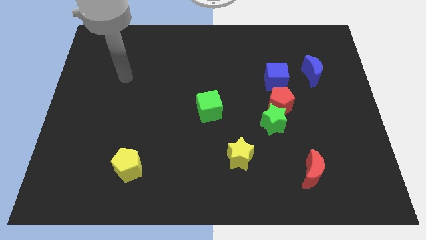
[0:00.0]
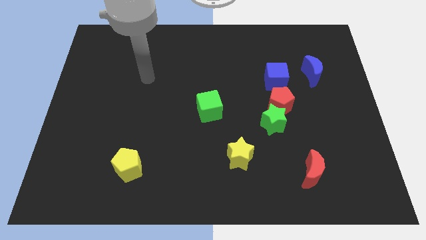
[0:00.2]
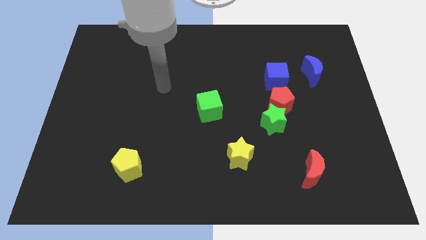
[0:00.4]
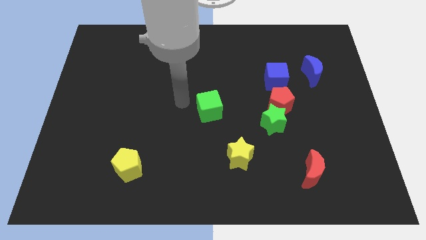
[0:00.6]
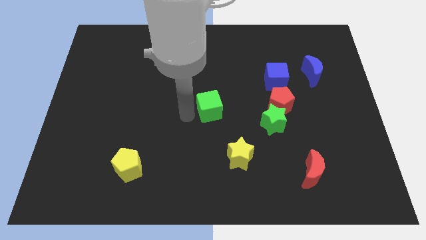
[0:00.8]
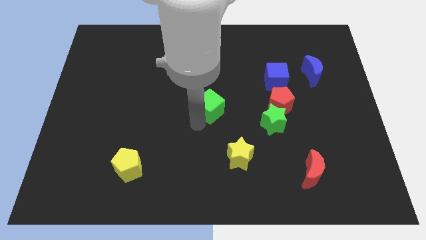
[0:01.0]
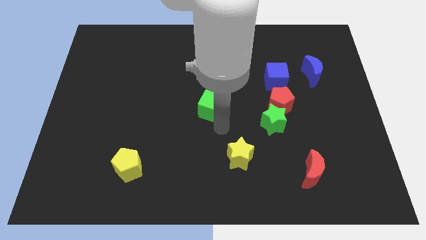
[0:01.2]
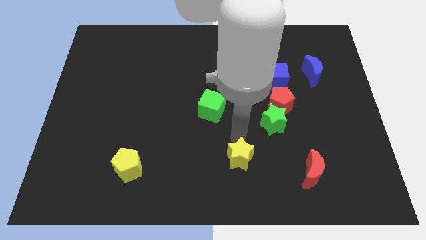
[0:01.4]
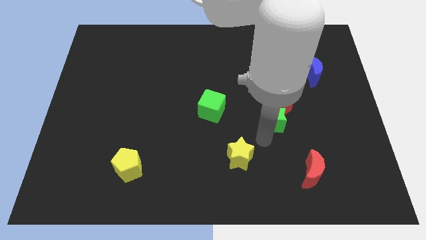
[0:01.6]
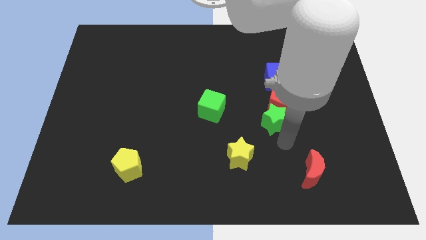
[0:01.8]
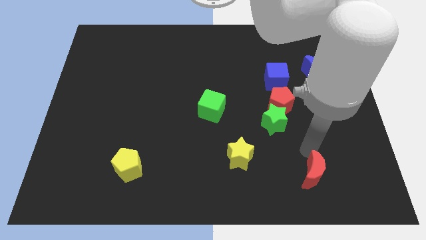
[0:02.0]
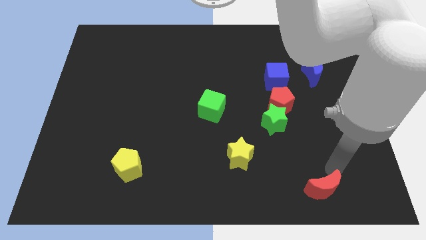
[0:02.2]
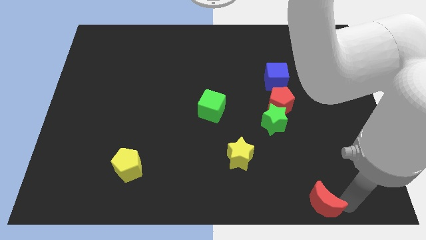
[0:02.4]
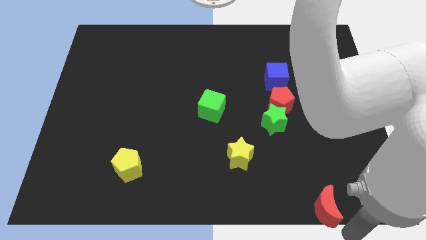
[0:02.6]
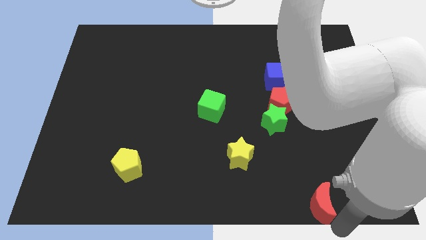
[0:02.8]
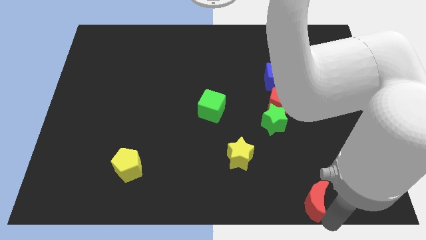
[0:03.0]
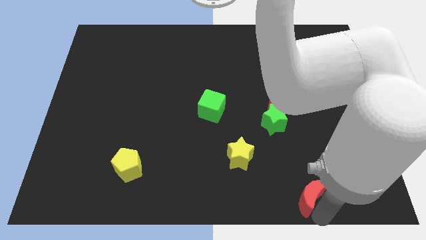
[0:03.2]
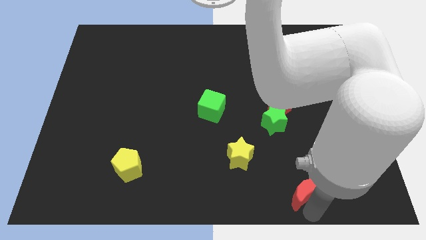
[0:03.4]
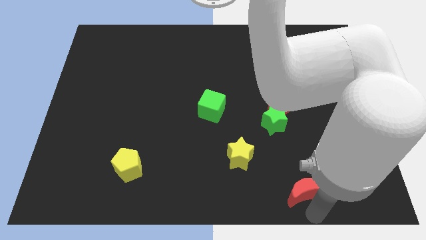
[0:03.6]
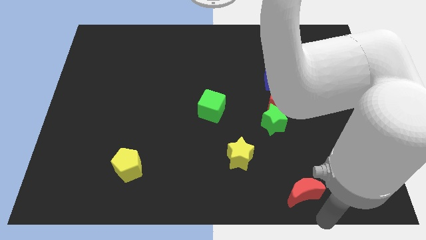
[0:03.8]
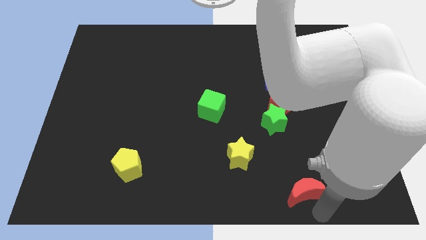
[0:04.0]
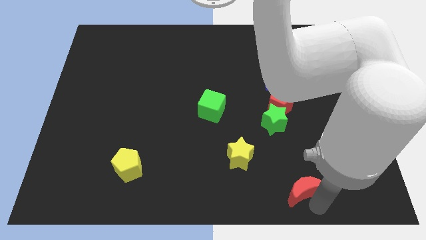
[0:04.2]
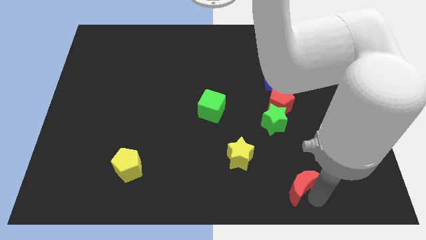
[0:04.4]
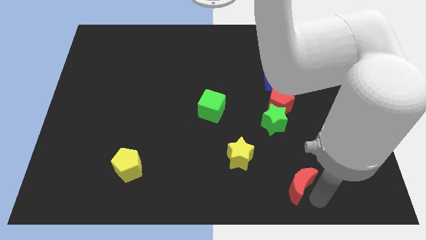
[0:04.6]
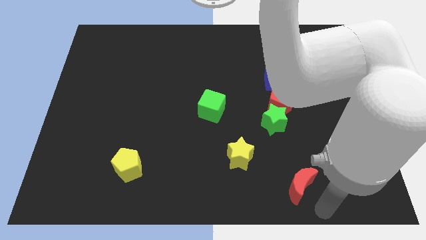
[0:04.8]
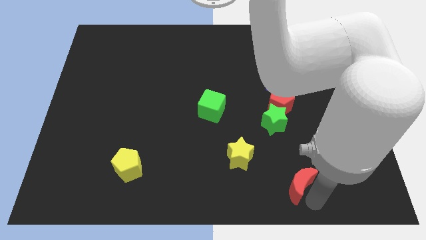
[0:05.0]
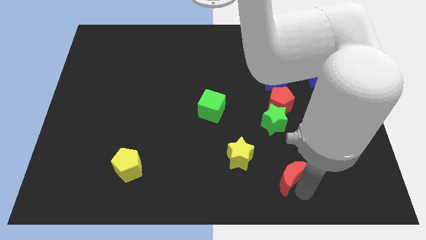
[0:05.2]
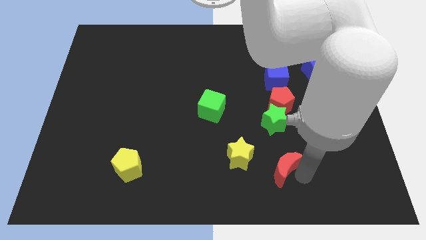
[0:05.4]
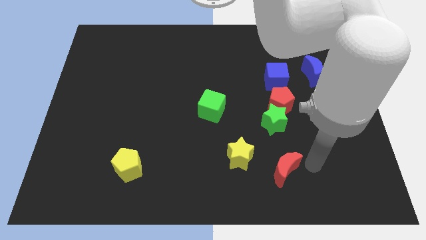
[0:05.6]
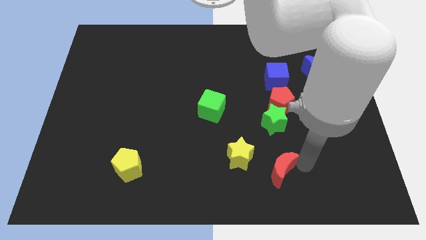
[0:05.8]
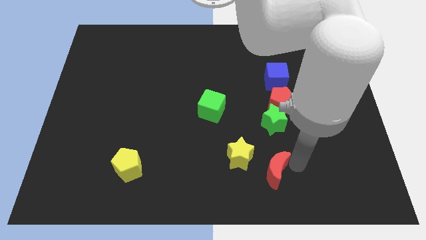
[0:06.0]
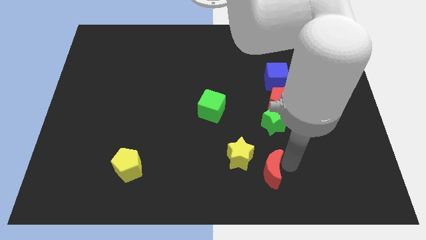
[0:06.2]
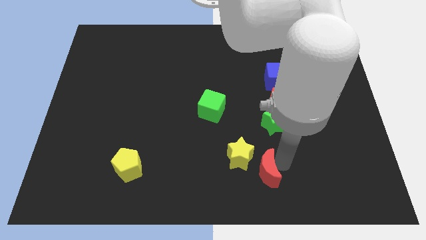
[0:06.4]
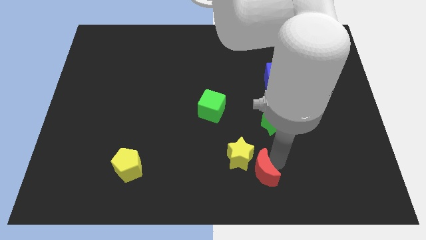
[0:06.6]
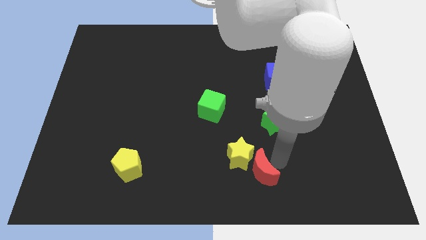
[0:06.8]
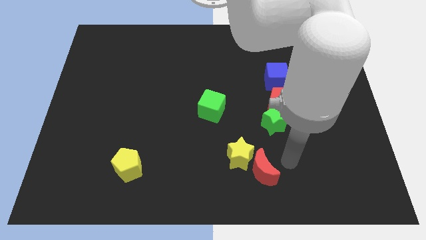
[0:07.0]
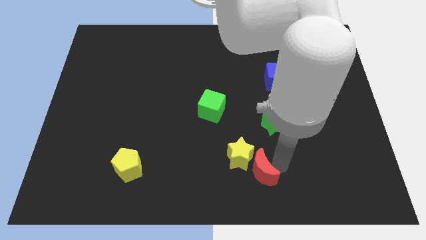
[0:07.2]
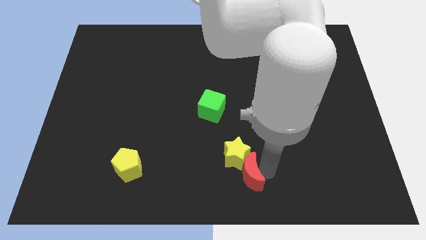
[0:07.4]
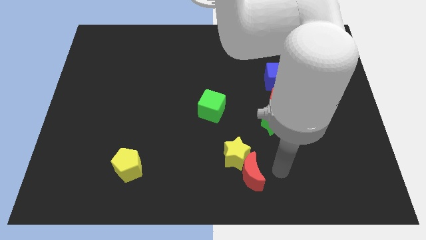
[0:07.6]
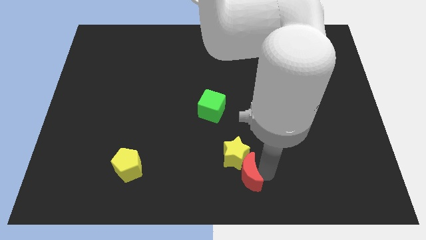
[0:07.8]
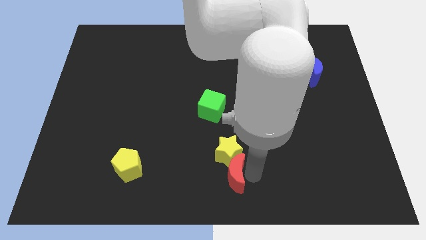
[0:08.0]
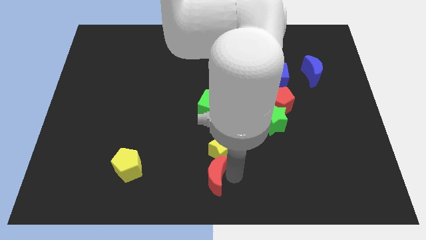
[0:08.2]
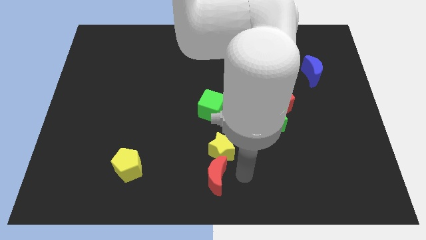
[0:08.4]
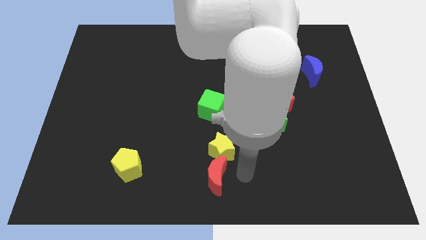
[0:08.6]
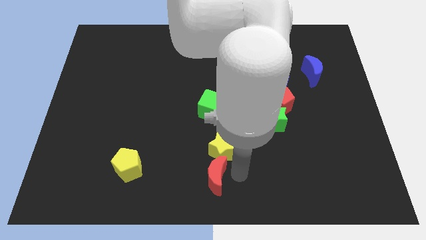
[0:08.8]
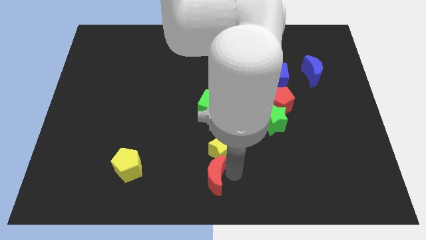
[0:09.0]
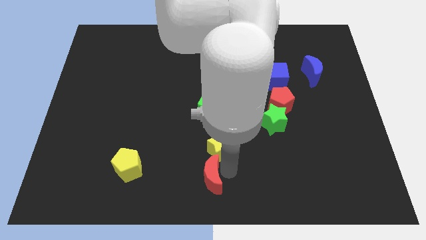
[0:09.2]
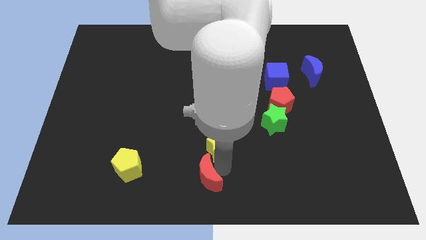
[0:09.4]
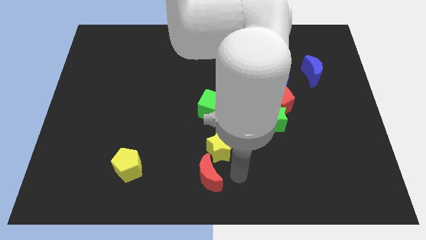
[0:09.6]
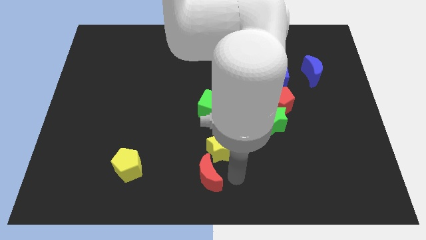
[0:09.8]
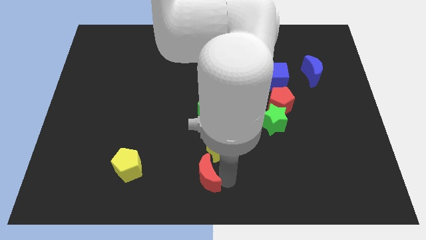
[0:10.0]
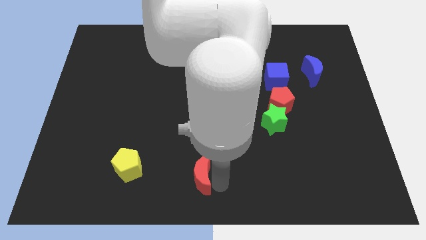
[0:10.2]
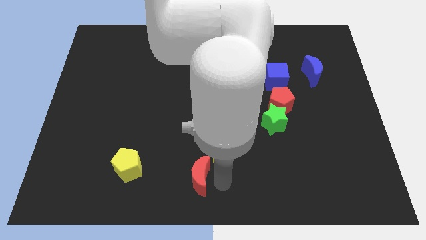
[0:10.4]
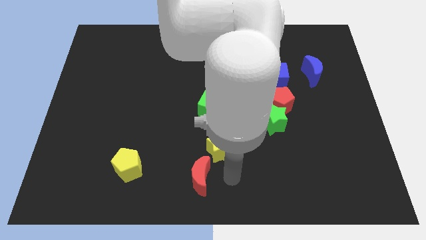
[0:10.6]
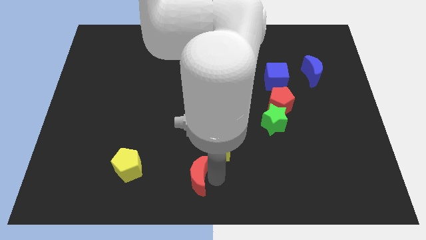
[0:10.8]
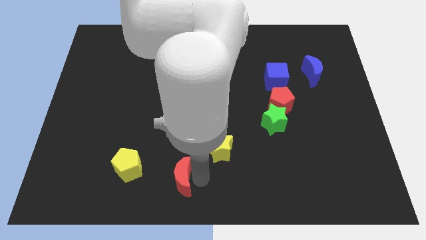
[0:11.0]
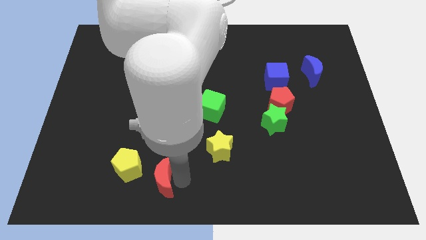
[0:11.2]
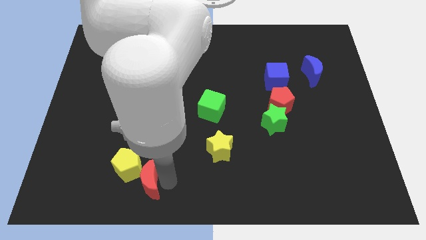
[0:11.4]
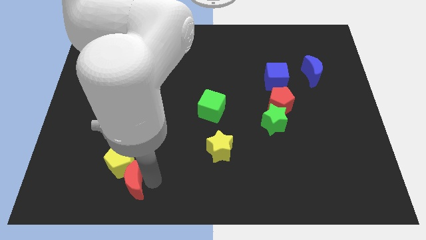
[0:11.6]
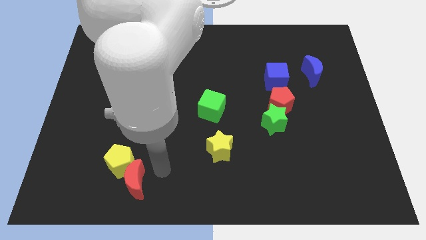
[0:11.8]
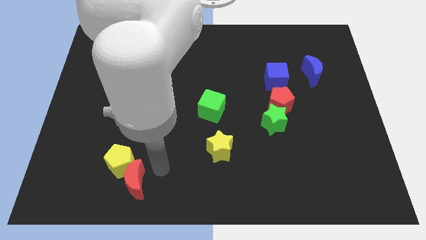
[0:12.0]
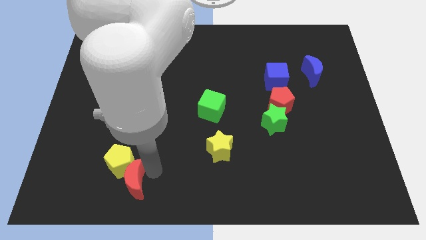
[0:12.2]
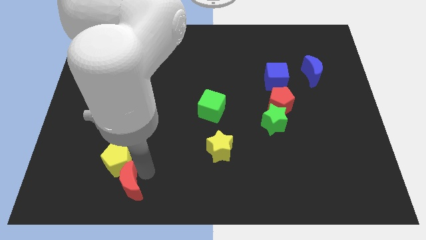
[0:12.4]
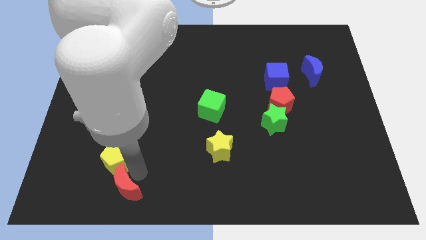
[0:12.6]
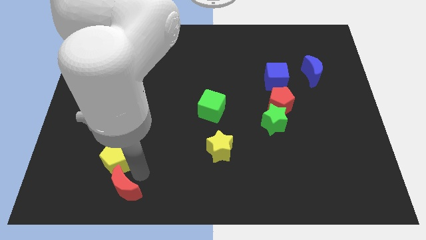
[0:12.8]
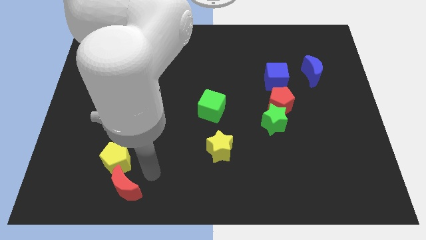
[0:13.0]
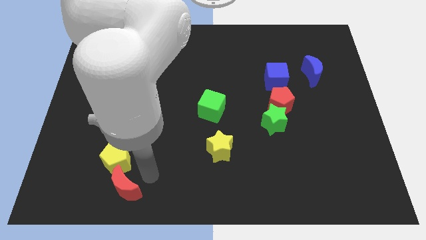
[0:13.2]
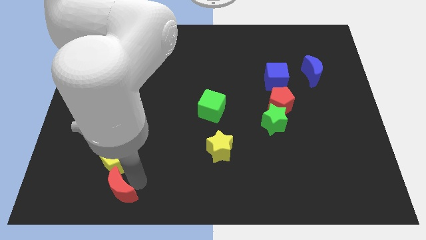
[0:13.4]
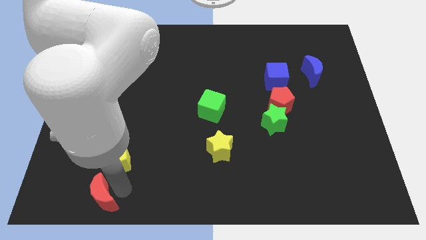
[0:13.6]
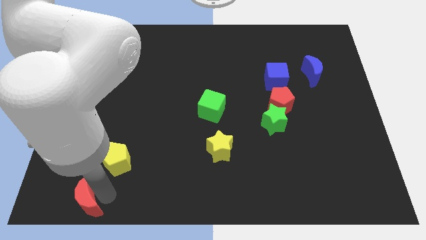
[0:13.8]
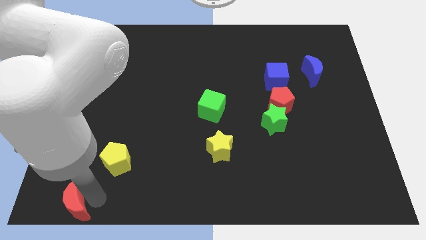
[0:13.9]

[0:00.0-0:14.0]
slide the red moon to the bottom left
